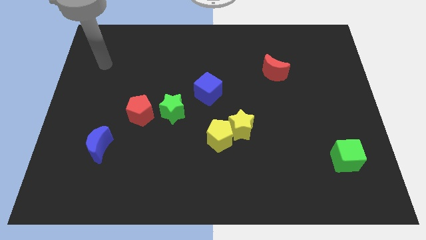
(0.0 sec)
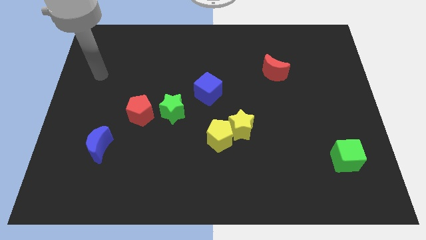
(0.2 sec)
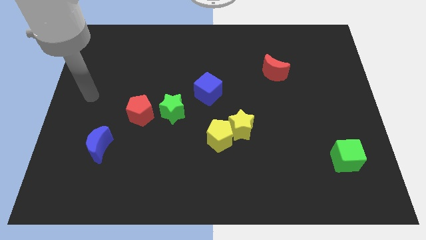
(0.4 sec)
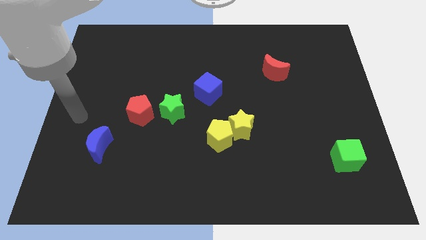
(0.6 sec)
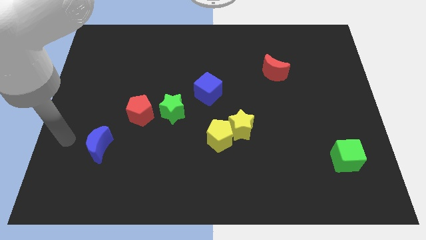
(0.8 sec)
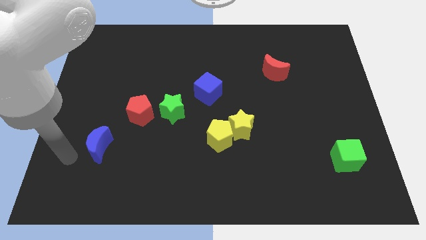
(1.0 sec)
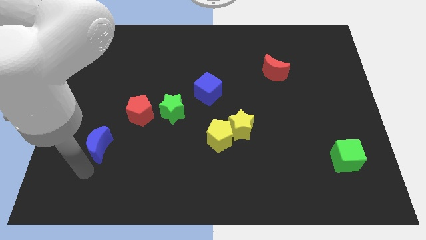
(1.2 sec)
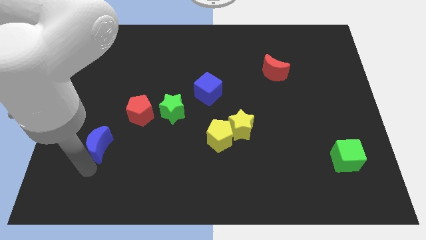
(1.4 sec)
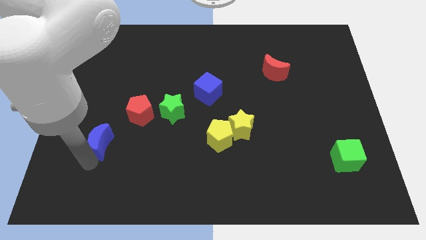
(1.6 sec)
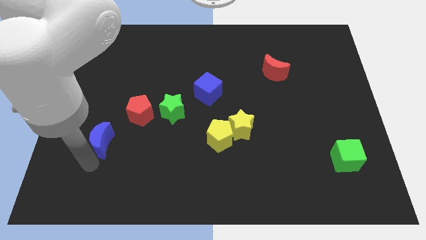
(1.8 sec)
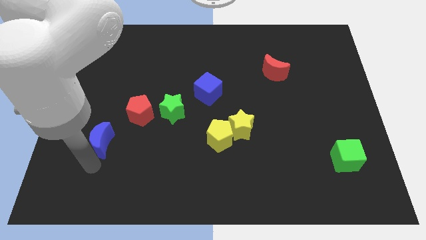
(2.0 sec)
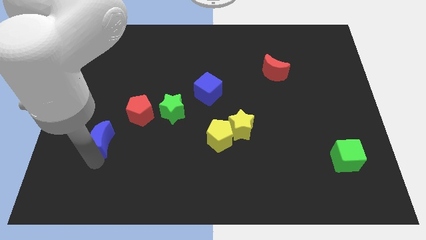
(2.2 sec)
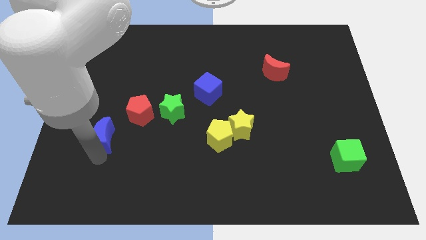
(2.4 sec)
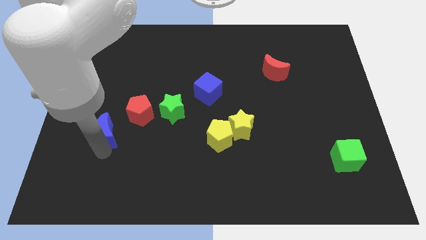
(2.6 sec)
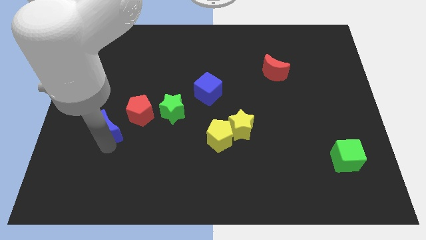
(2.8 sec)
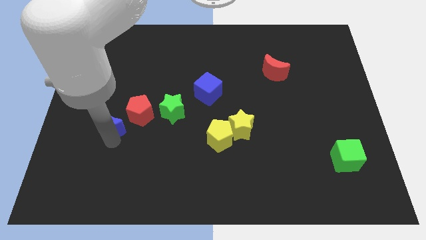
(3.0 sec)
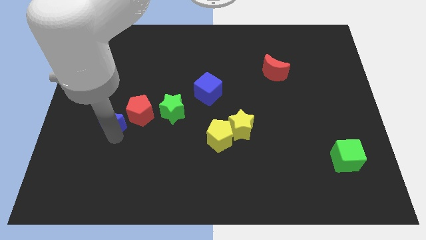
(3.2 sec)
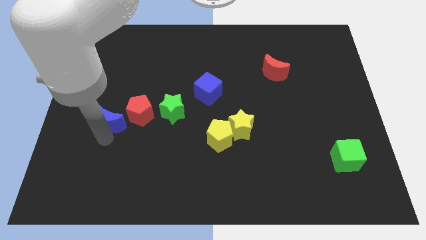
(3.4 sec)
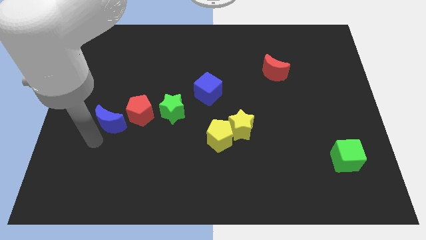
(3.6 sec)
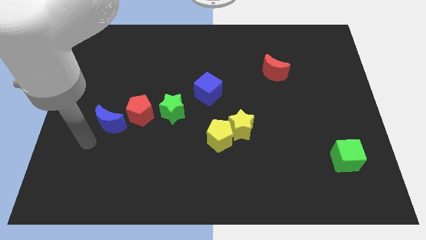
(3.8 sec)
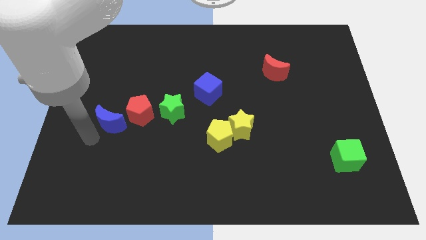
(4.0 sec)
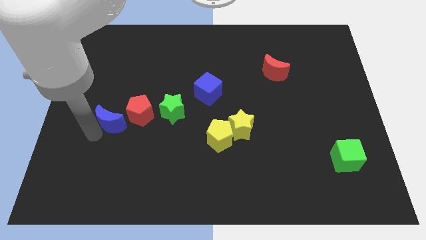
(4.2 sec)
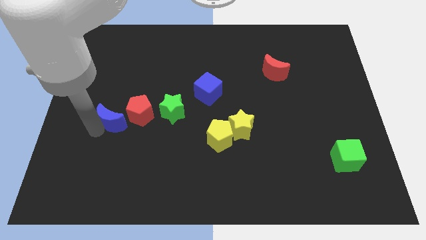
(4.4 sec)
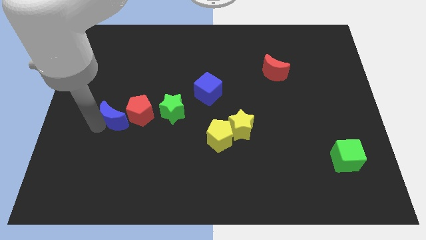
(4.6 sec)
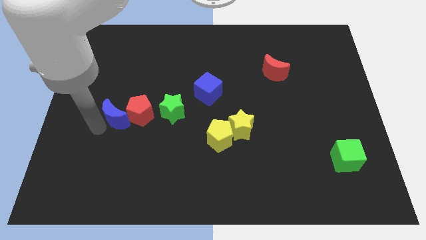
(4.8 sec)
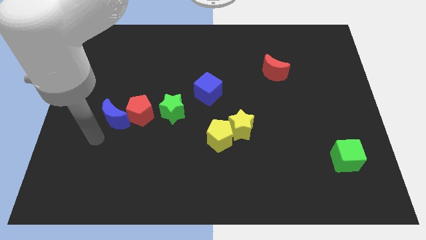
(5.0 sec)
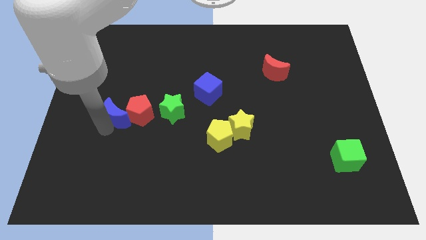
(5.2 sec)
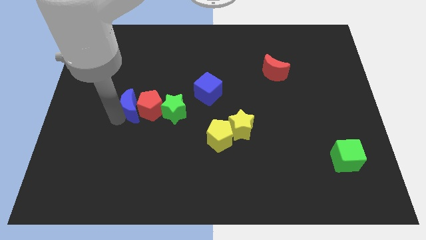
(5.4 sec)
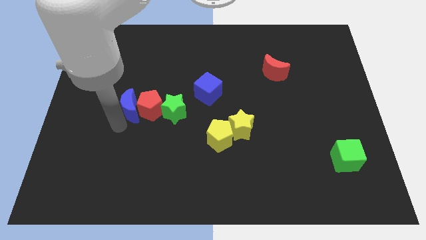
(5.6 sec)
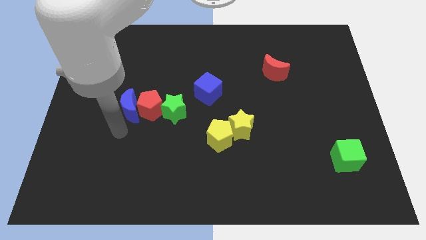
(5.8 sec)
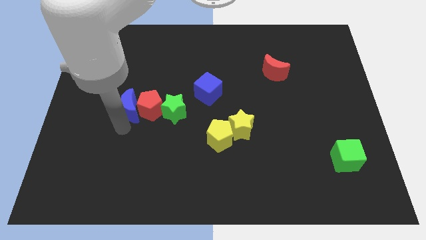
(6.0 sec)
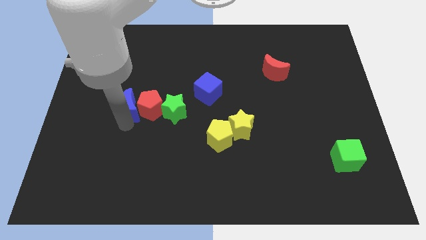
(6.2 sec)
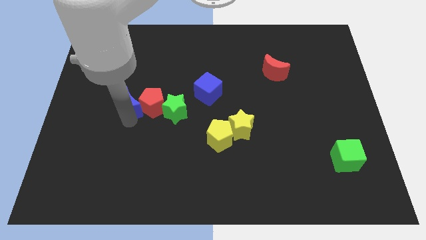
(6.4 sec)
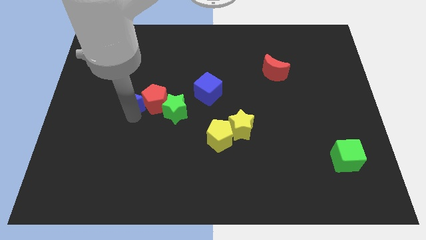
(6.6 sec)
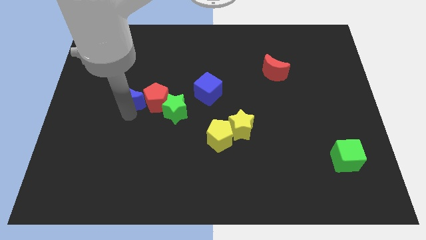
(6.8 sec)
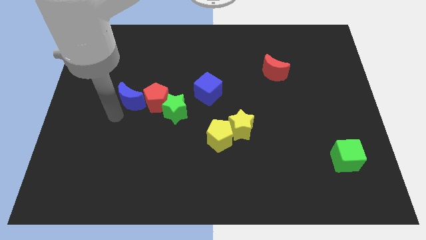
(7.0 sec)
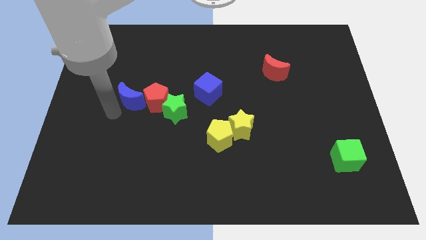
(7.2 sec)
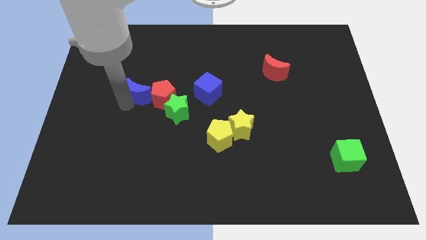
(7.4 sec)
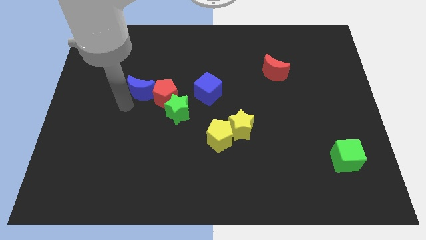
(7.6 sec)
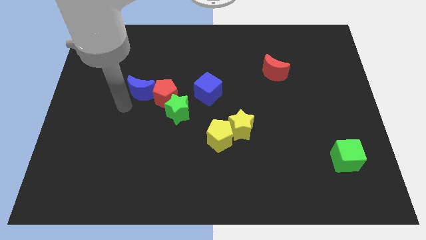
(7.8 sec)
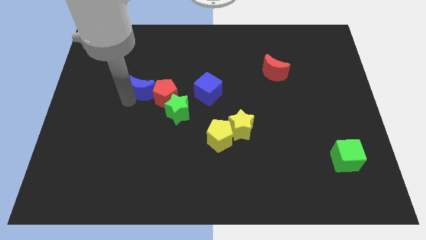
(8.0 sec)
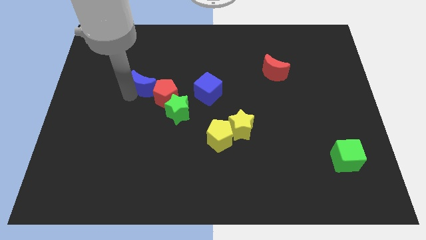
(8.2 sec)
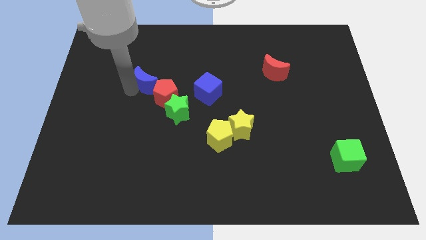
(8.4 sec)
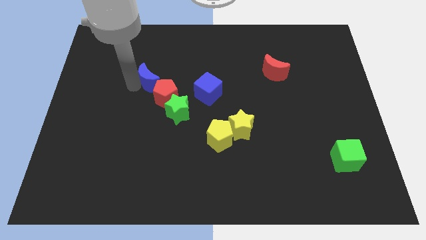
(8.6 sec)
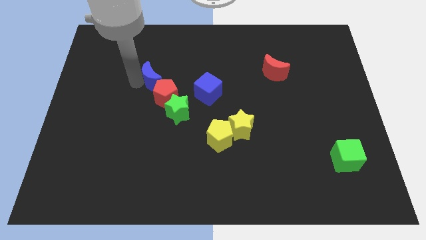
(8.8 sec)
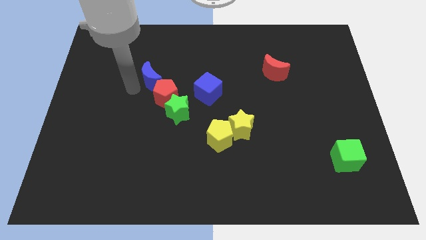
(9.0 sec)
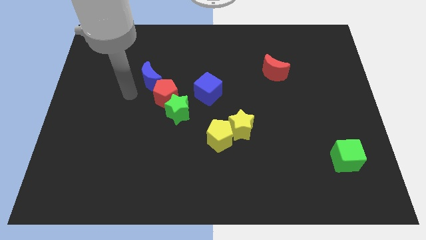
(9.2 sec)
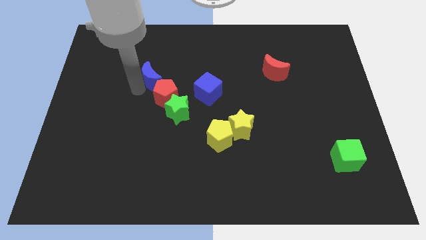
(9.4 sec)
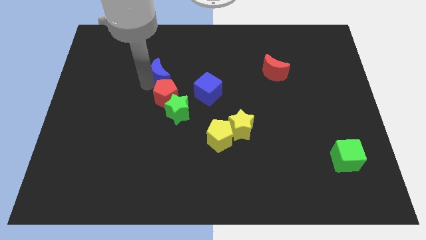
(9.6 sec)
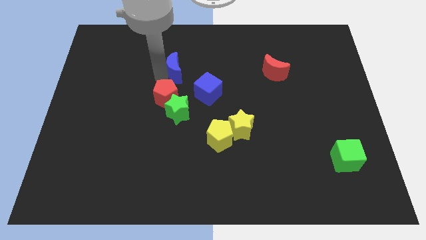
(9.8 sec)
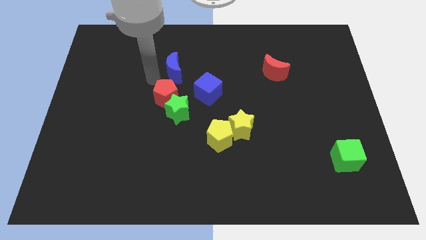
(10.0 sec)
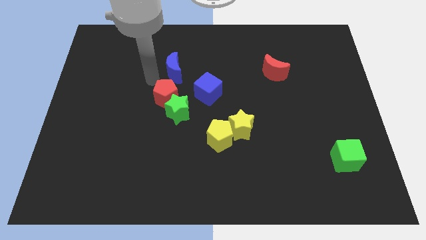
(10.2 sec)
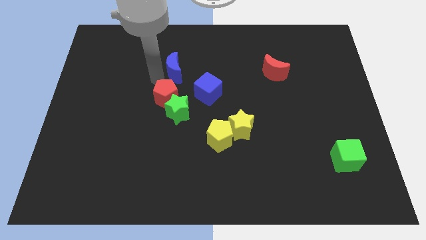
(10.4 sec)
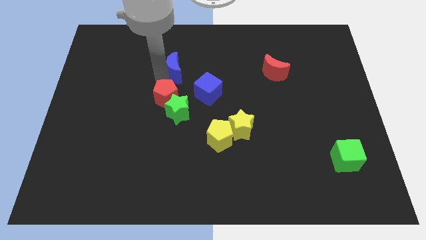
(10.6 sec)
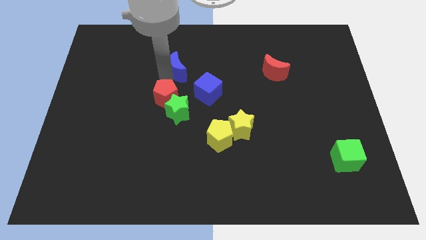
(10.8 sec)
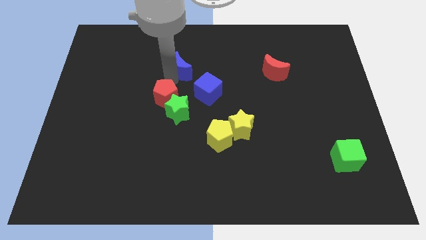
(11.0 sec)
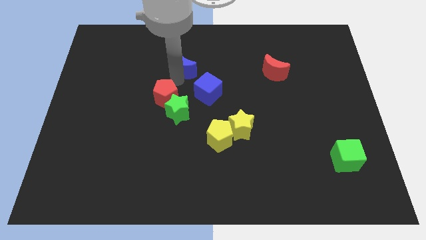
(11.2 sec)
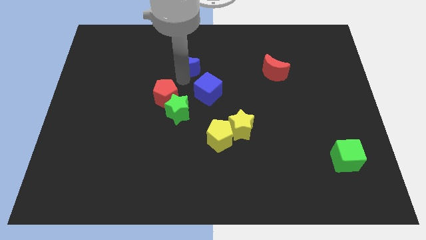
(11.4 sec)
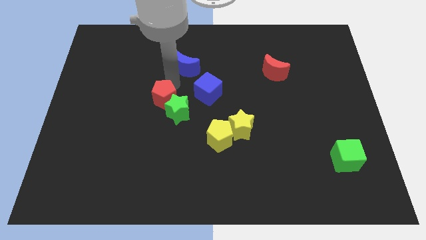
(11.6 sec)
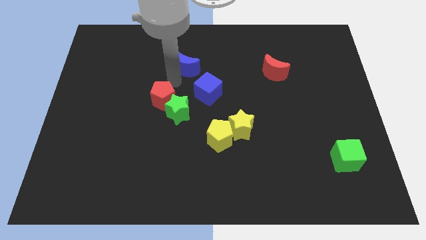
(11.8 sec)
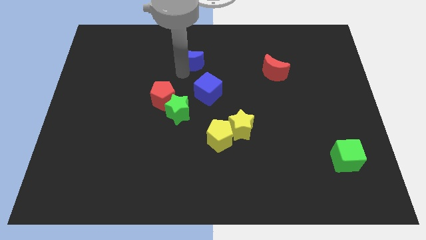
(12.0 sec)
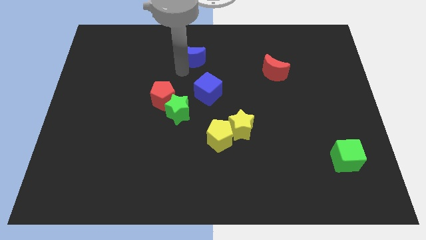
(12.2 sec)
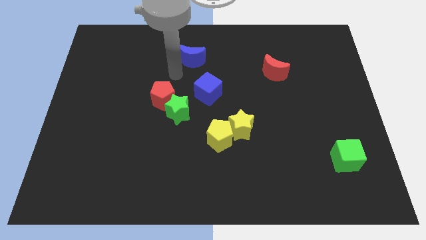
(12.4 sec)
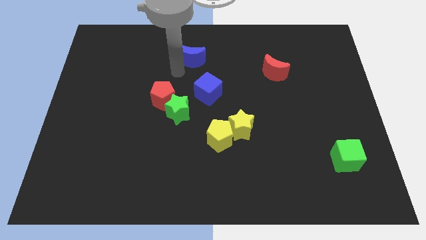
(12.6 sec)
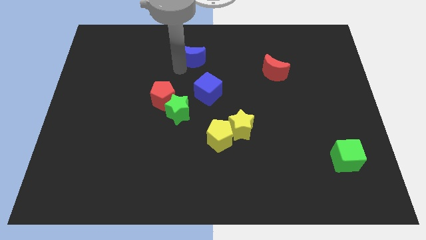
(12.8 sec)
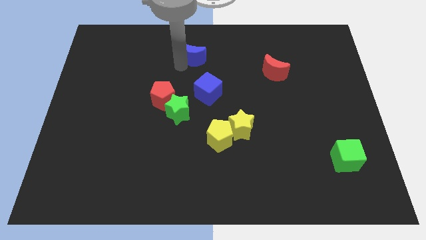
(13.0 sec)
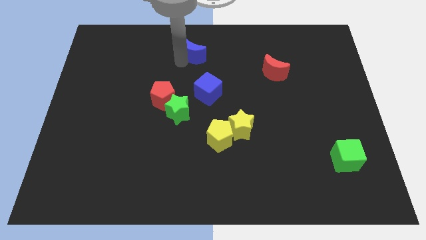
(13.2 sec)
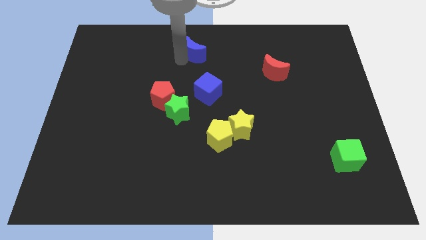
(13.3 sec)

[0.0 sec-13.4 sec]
put the blue moon to the top side
